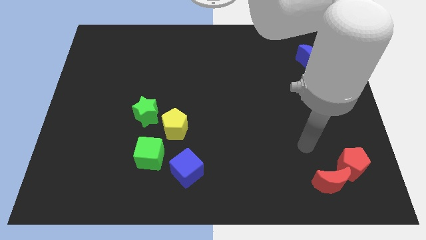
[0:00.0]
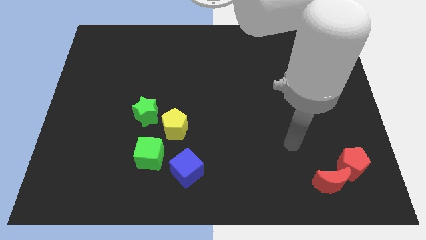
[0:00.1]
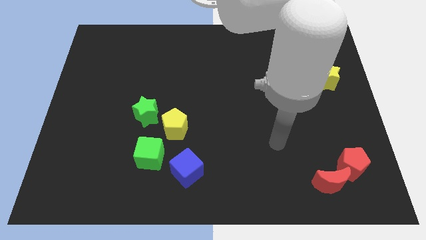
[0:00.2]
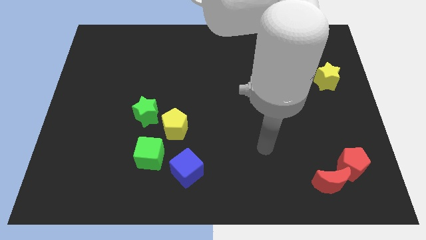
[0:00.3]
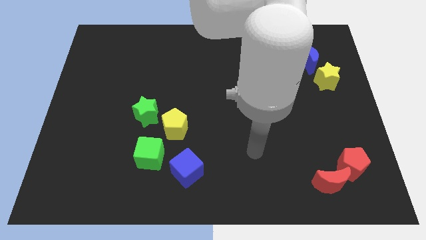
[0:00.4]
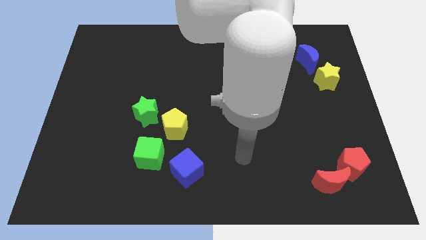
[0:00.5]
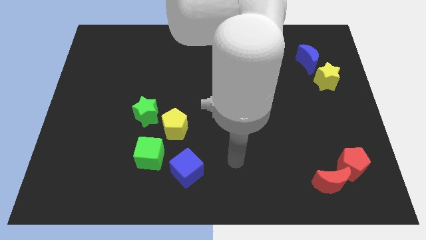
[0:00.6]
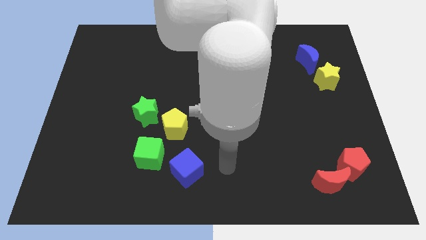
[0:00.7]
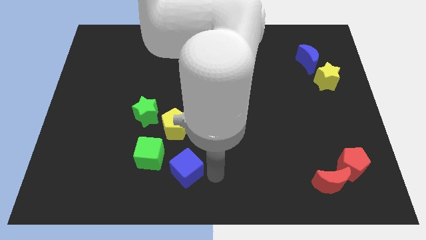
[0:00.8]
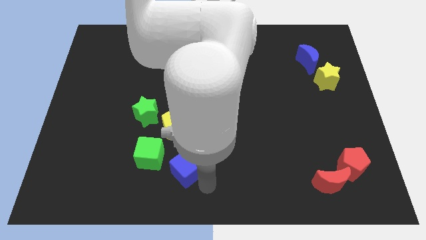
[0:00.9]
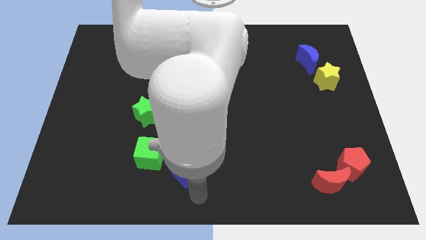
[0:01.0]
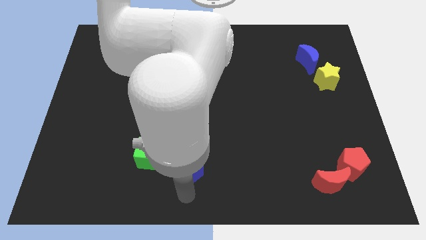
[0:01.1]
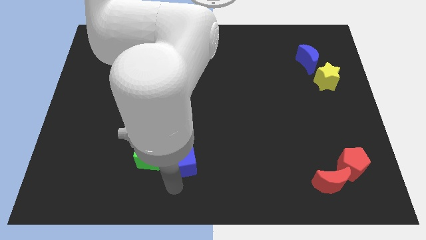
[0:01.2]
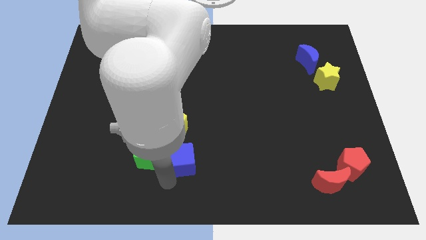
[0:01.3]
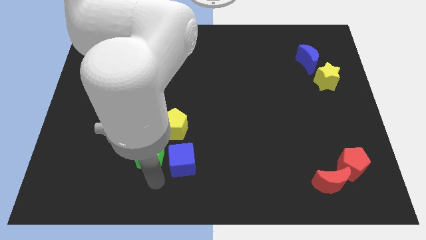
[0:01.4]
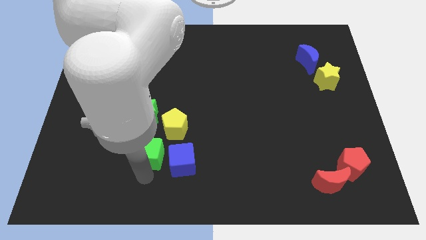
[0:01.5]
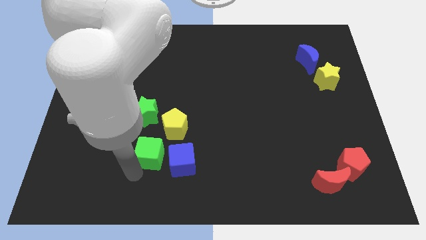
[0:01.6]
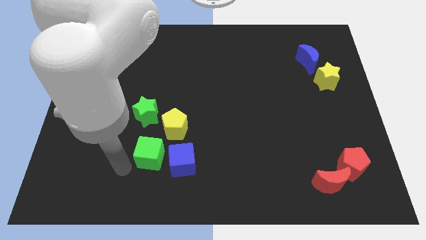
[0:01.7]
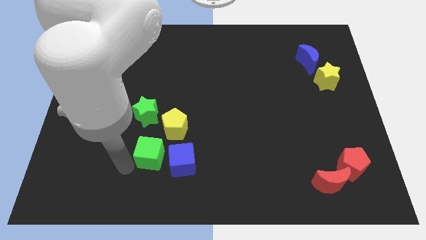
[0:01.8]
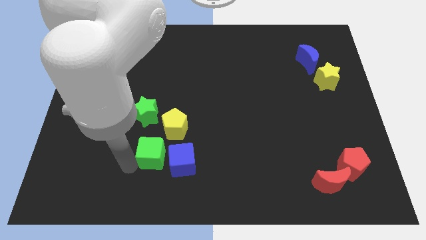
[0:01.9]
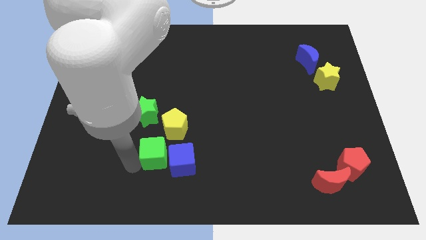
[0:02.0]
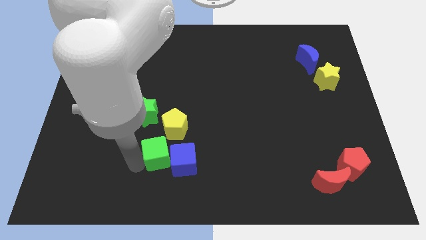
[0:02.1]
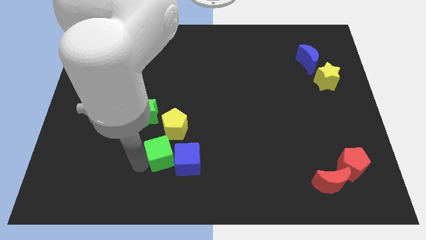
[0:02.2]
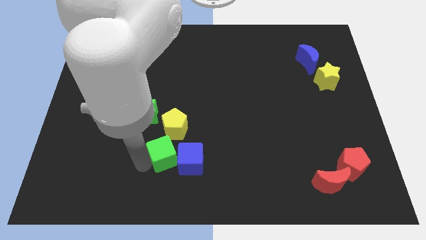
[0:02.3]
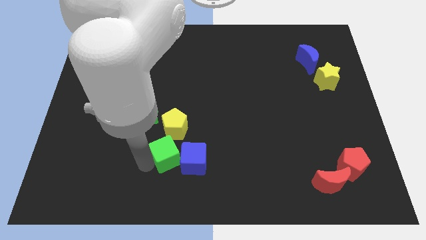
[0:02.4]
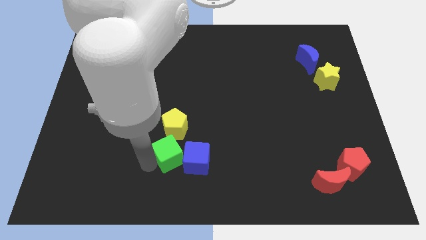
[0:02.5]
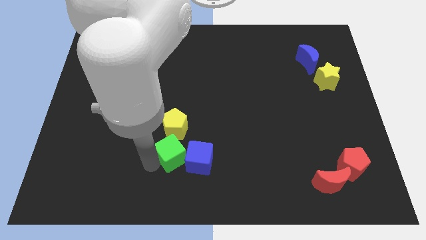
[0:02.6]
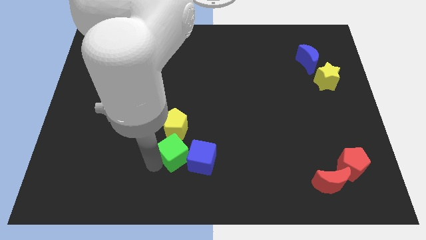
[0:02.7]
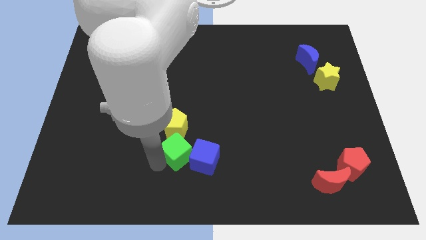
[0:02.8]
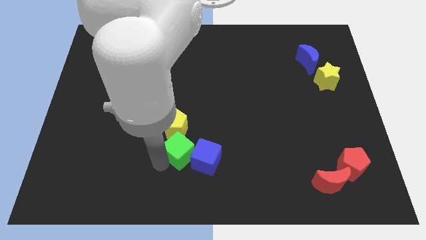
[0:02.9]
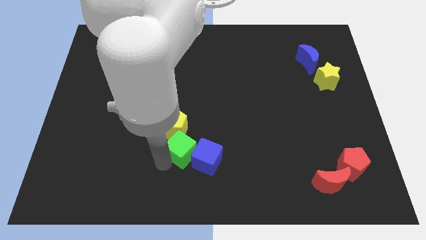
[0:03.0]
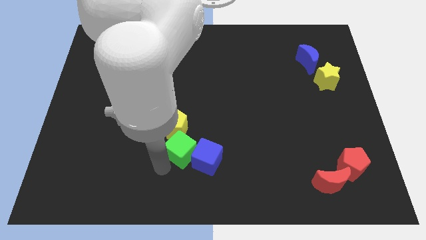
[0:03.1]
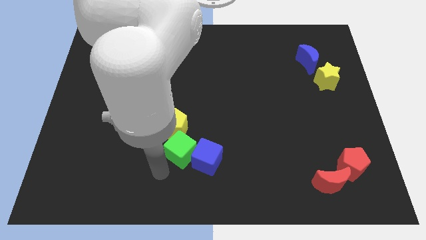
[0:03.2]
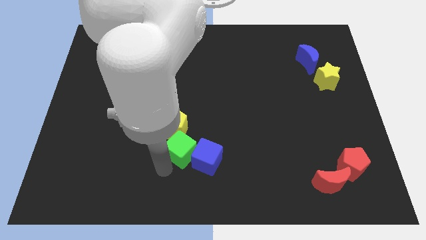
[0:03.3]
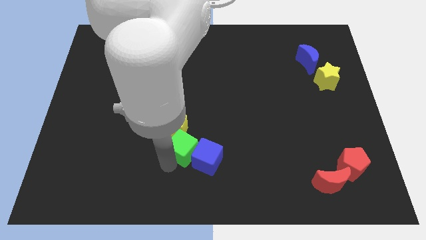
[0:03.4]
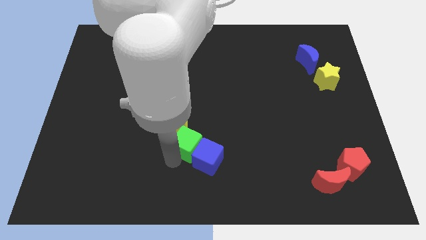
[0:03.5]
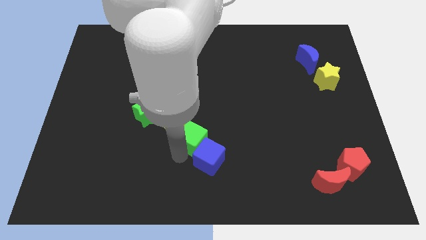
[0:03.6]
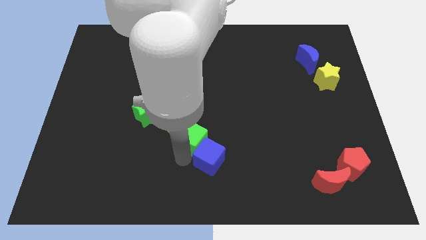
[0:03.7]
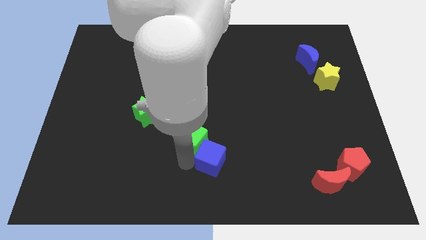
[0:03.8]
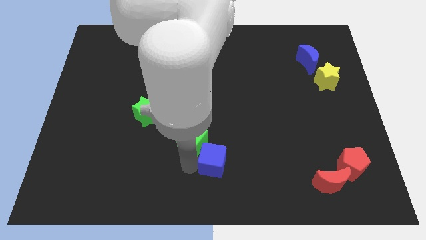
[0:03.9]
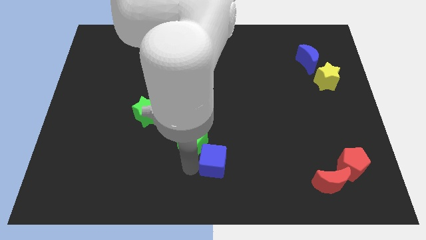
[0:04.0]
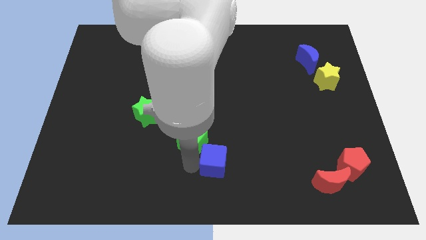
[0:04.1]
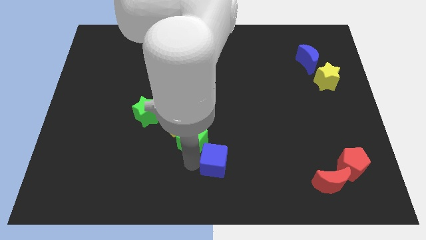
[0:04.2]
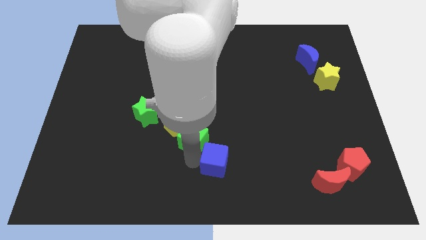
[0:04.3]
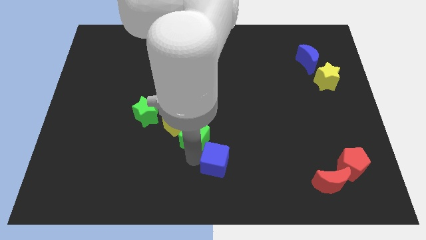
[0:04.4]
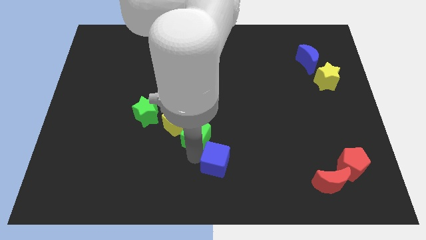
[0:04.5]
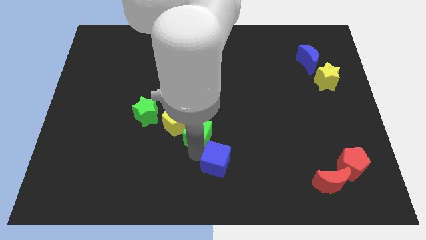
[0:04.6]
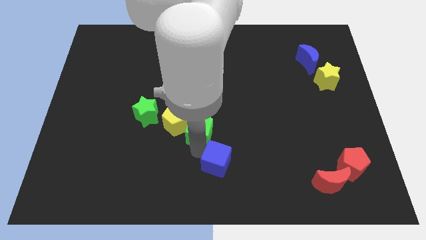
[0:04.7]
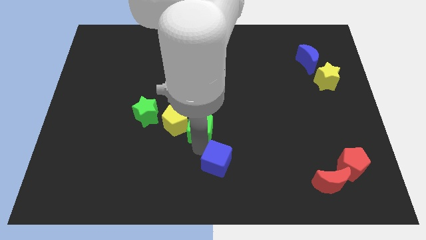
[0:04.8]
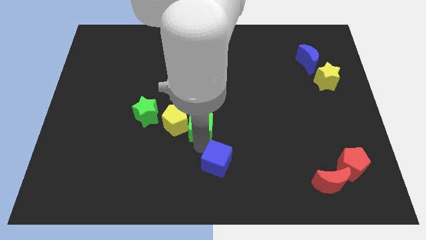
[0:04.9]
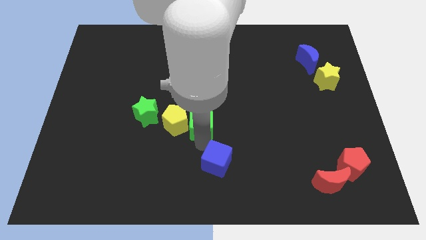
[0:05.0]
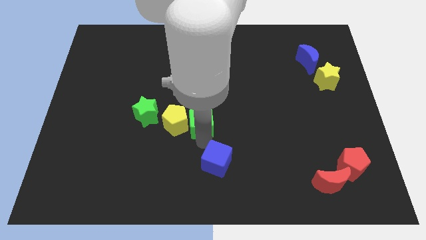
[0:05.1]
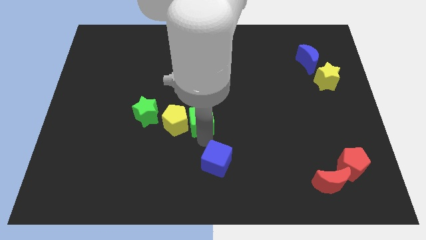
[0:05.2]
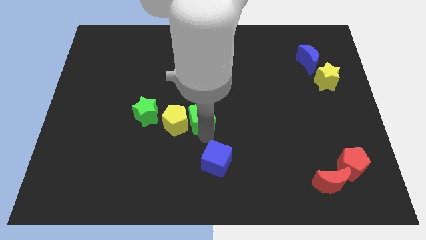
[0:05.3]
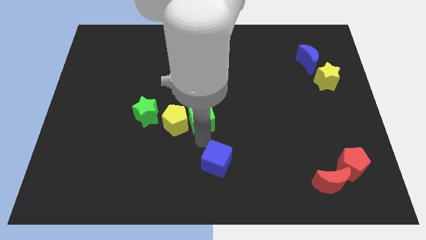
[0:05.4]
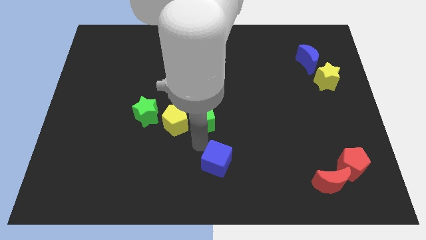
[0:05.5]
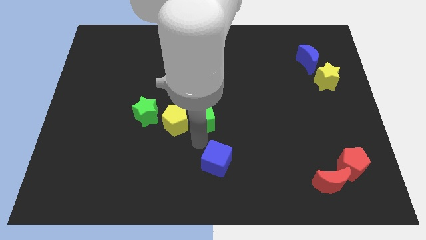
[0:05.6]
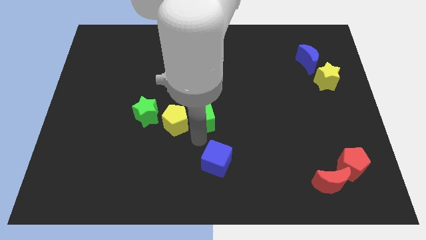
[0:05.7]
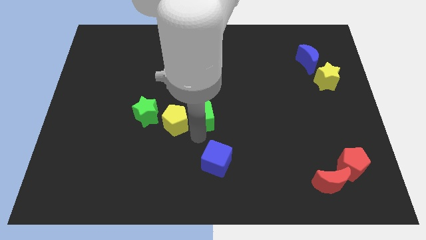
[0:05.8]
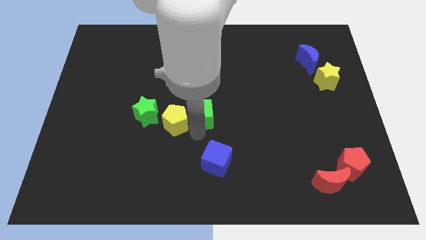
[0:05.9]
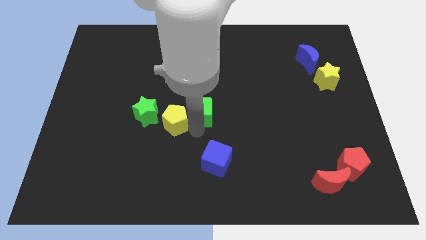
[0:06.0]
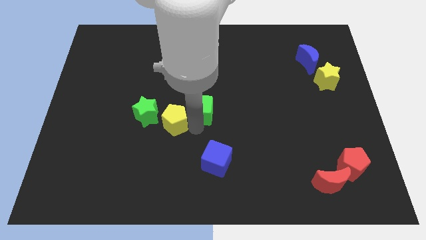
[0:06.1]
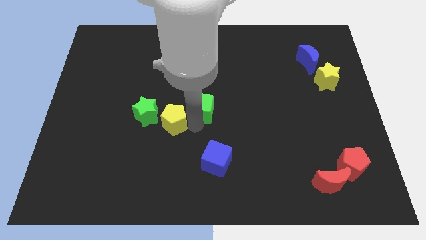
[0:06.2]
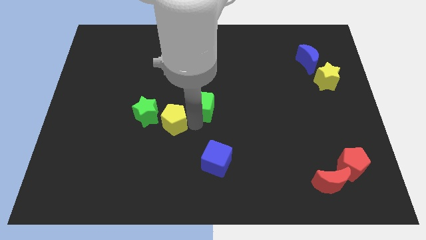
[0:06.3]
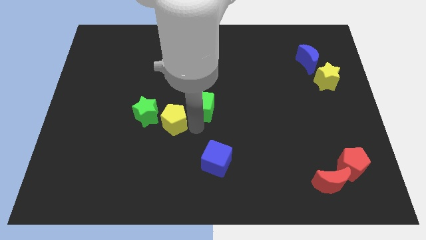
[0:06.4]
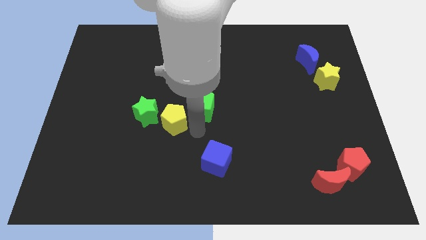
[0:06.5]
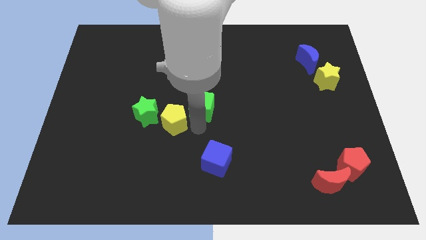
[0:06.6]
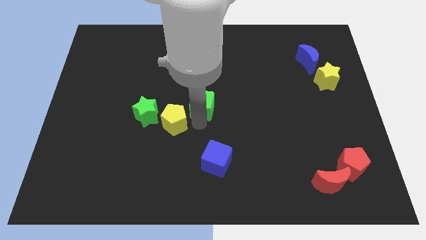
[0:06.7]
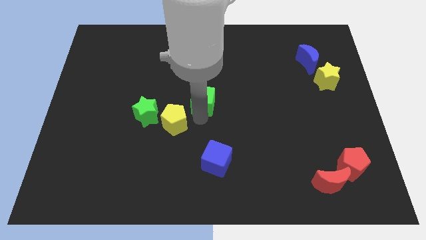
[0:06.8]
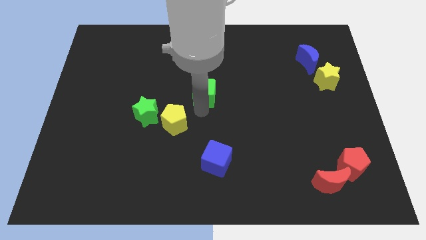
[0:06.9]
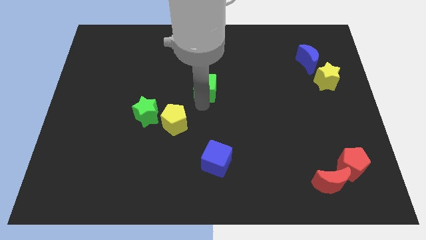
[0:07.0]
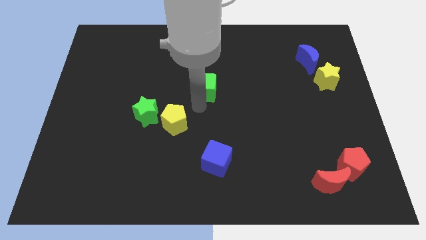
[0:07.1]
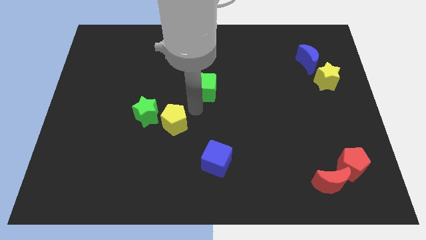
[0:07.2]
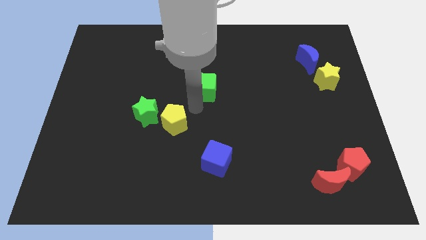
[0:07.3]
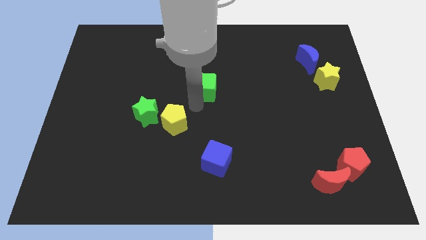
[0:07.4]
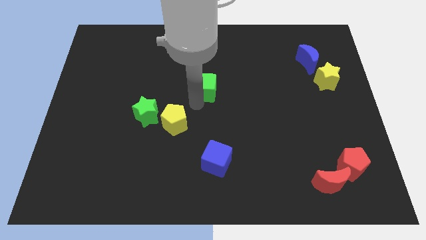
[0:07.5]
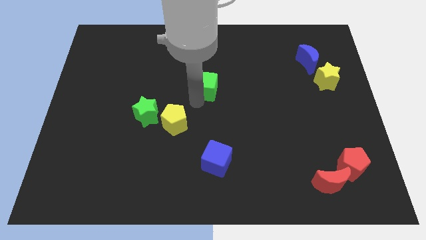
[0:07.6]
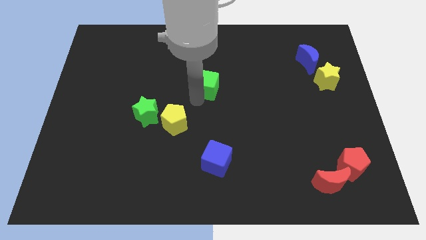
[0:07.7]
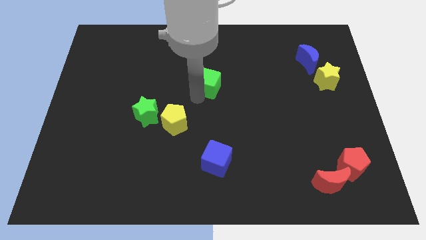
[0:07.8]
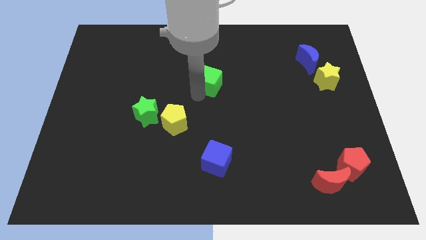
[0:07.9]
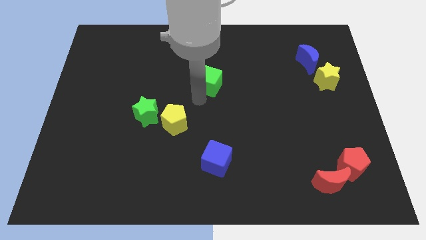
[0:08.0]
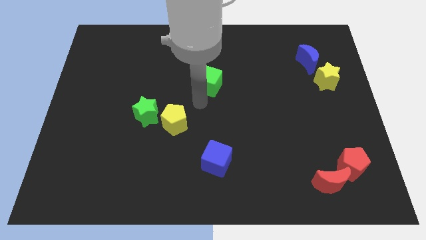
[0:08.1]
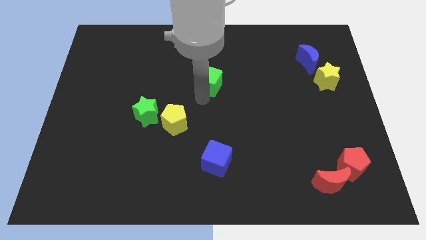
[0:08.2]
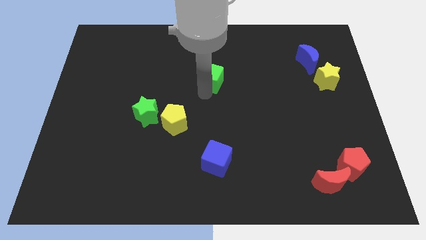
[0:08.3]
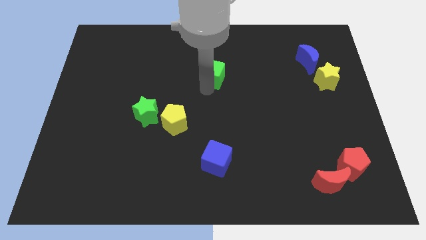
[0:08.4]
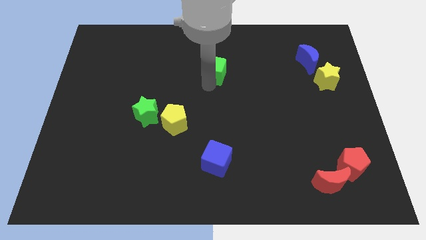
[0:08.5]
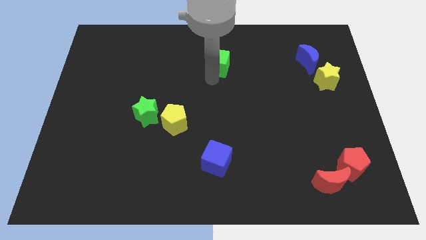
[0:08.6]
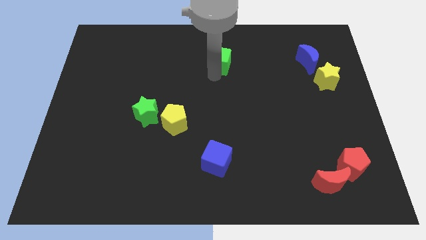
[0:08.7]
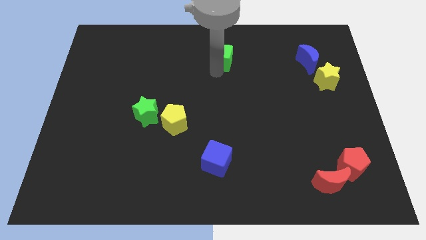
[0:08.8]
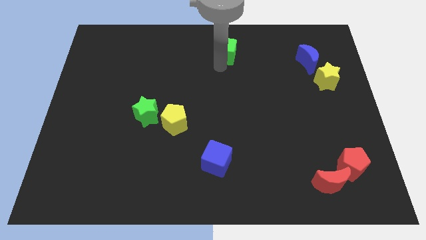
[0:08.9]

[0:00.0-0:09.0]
put the green cube to the towards your base
